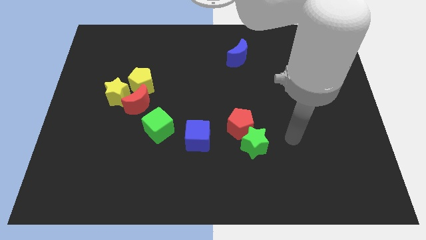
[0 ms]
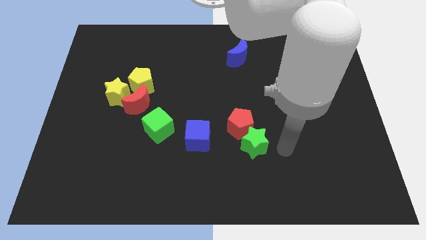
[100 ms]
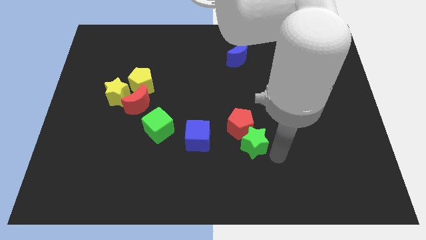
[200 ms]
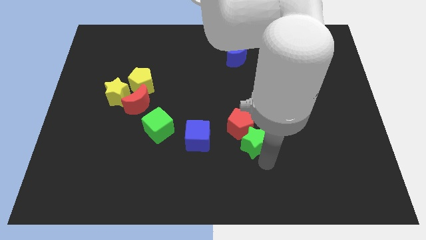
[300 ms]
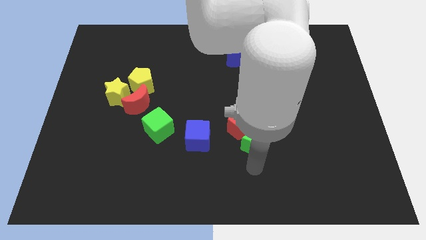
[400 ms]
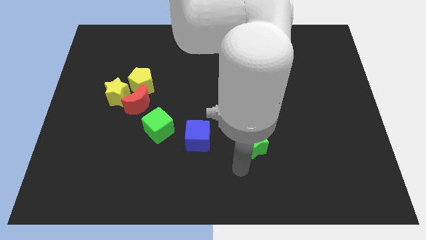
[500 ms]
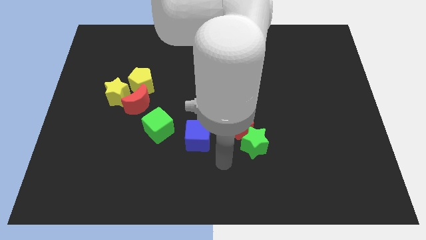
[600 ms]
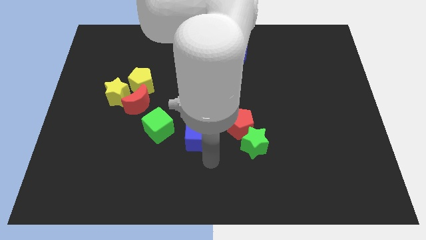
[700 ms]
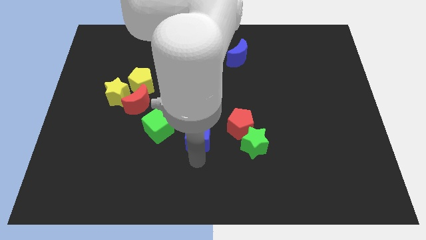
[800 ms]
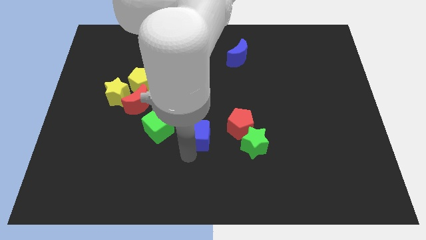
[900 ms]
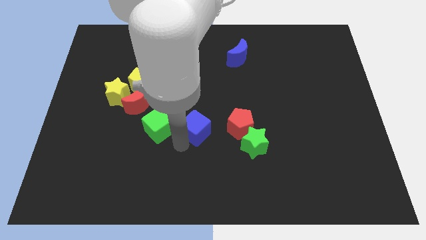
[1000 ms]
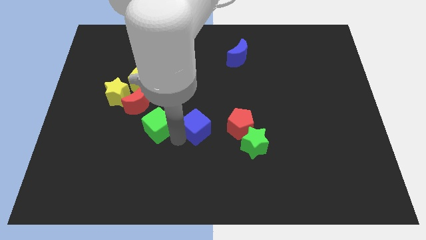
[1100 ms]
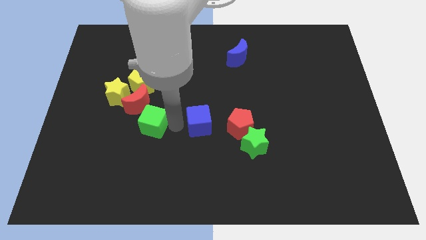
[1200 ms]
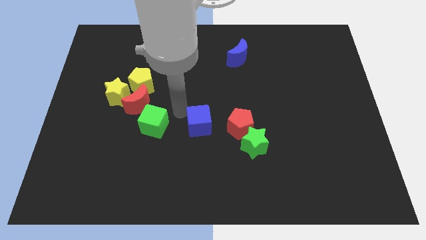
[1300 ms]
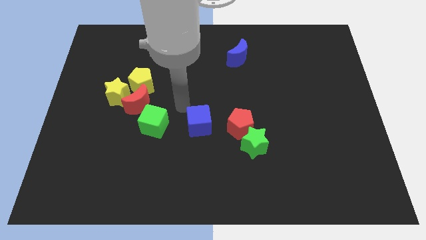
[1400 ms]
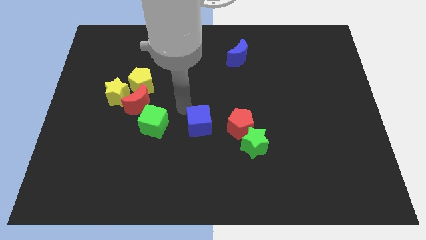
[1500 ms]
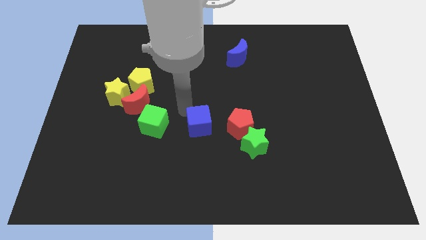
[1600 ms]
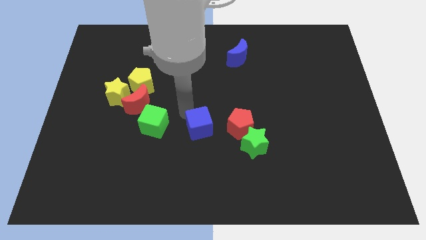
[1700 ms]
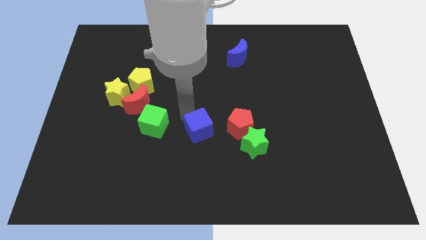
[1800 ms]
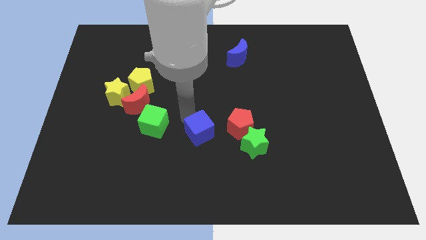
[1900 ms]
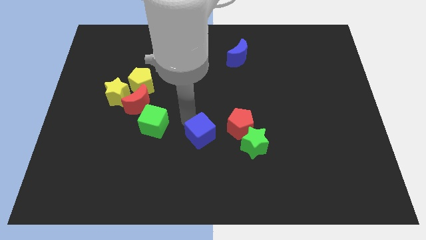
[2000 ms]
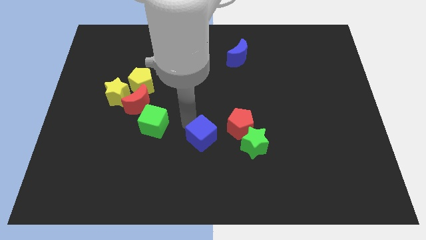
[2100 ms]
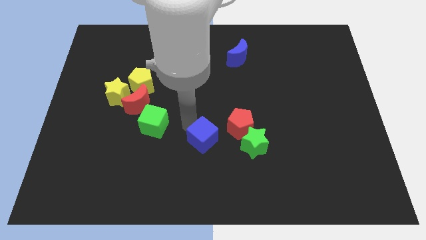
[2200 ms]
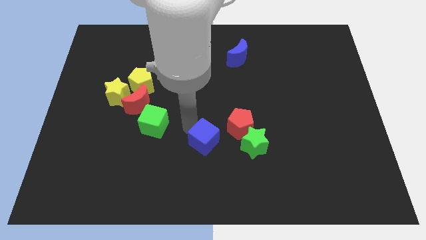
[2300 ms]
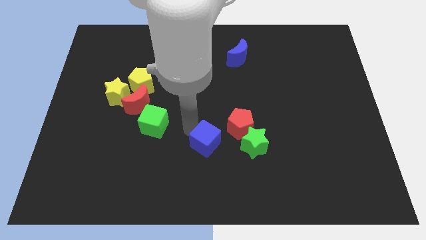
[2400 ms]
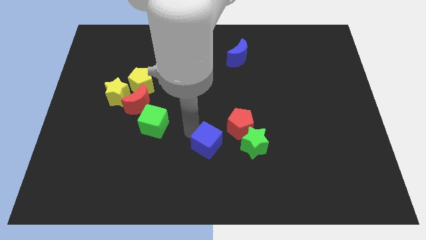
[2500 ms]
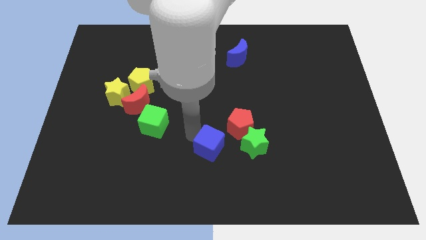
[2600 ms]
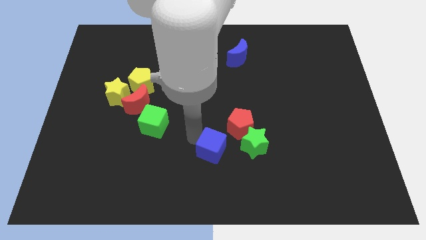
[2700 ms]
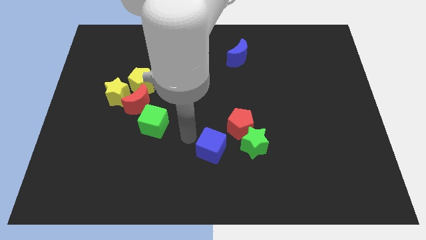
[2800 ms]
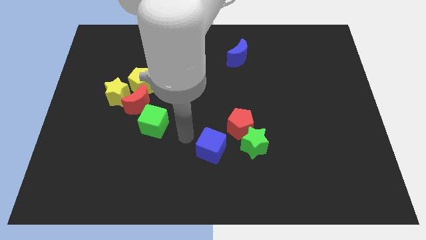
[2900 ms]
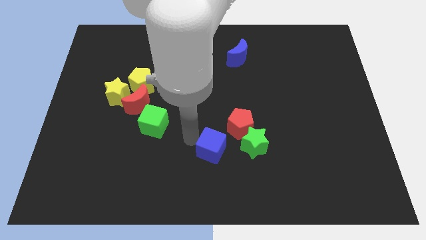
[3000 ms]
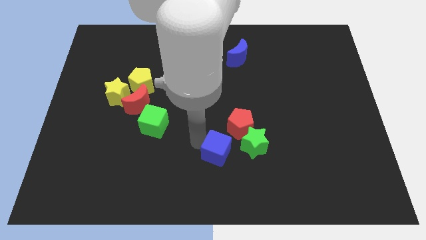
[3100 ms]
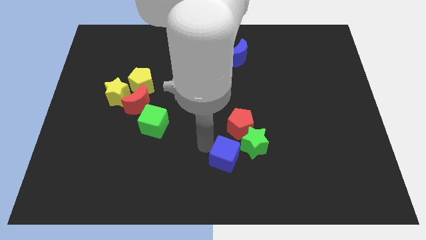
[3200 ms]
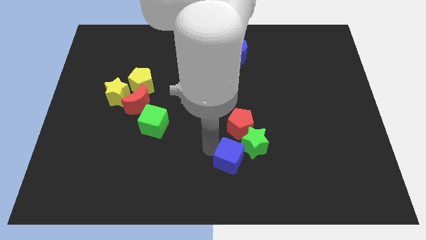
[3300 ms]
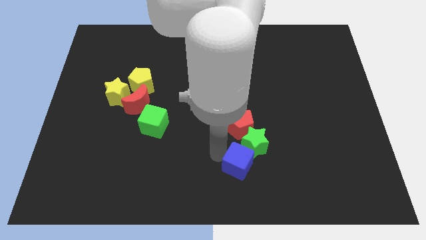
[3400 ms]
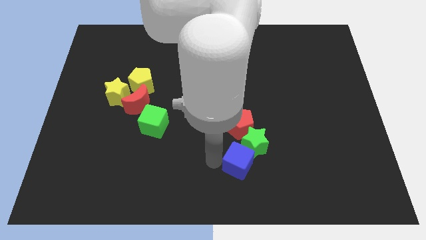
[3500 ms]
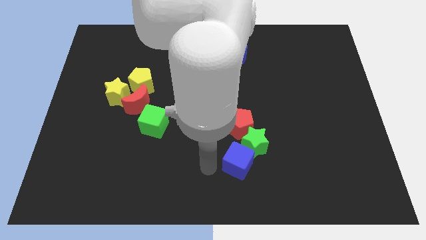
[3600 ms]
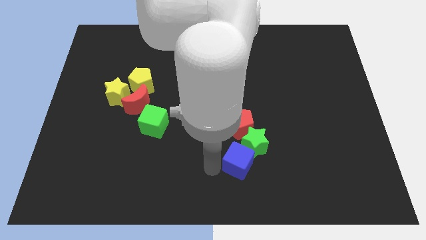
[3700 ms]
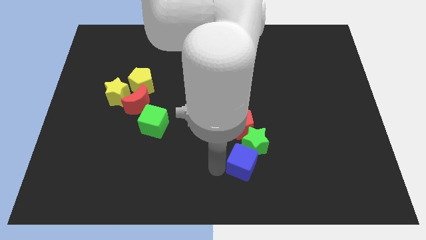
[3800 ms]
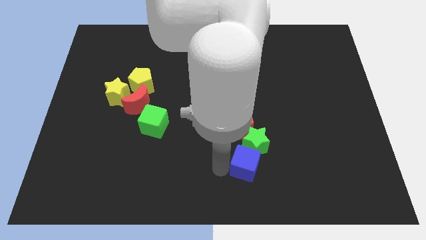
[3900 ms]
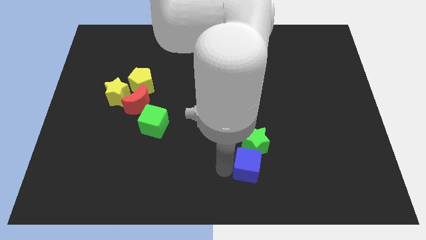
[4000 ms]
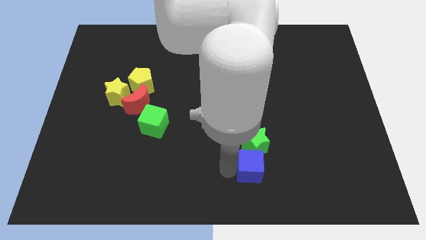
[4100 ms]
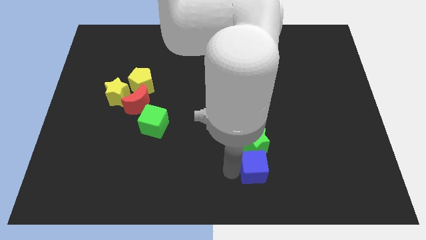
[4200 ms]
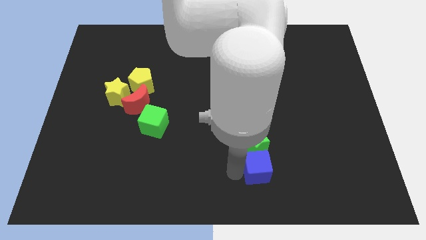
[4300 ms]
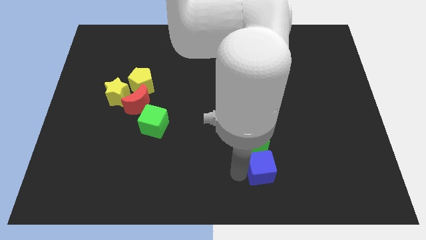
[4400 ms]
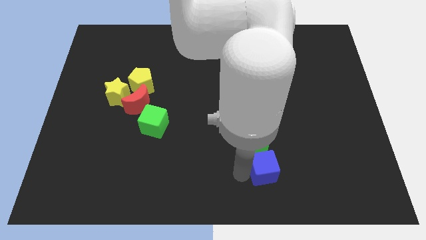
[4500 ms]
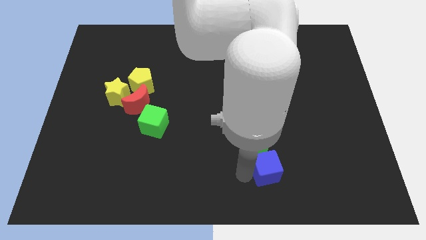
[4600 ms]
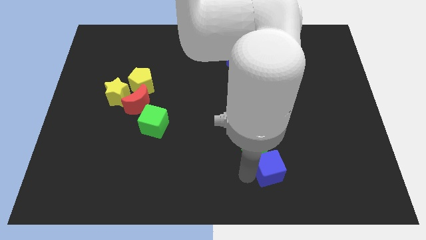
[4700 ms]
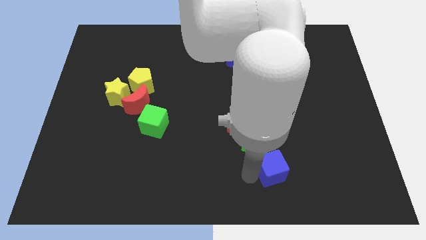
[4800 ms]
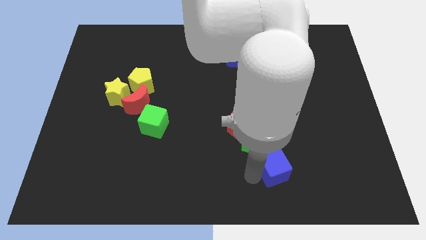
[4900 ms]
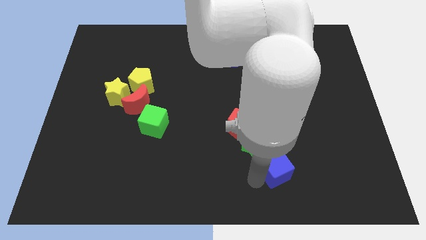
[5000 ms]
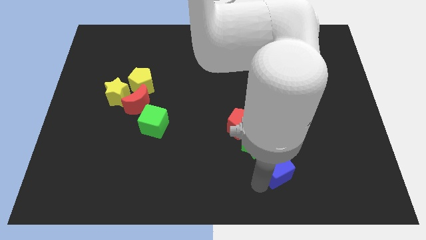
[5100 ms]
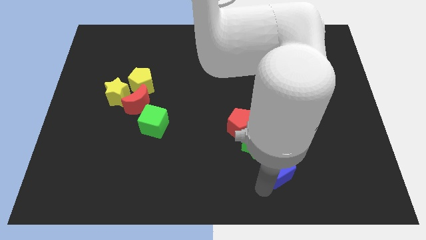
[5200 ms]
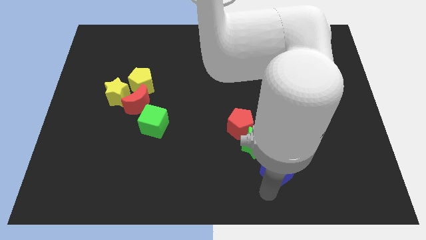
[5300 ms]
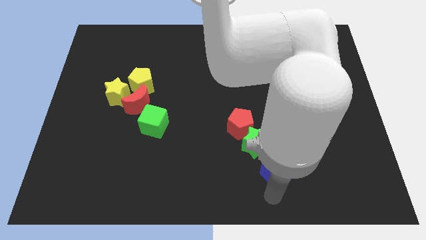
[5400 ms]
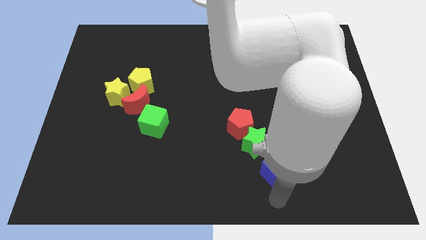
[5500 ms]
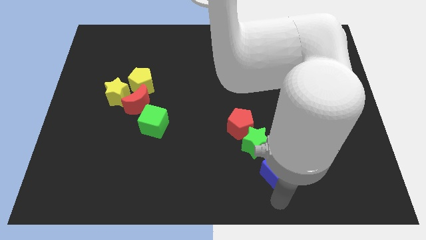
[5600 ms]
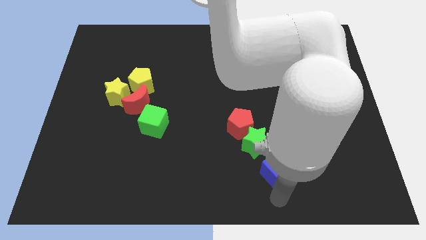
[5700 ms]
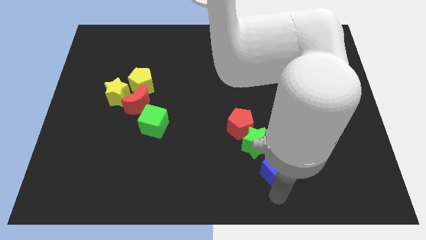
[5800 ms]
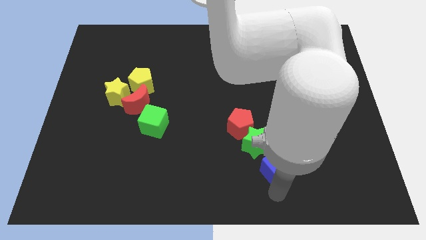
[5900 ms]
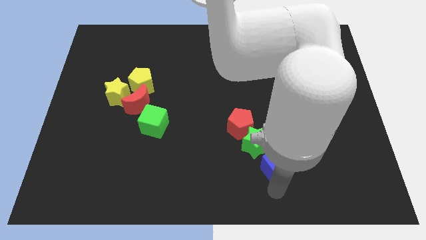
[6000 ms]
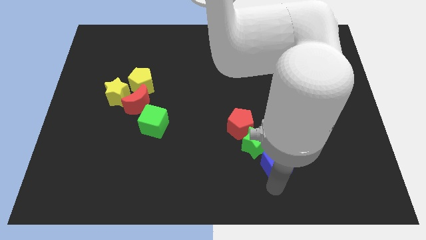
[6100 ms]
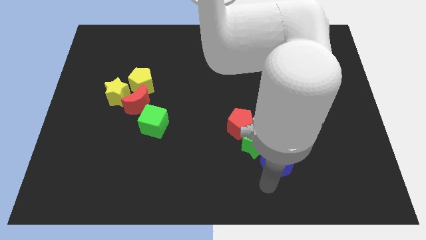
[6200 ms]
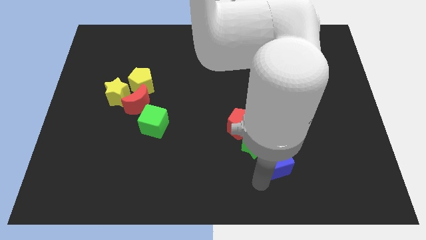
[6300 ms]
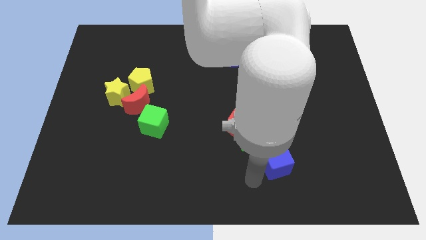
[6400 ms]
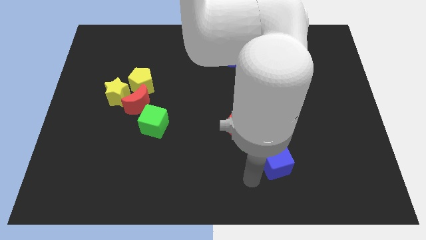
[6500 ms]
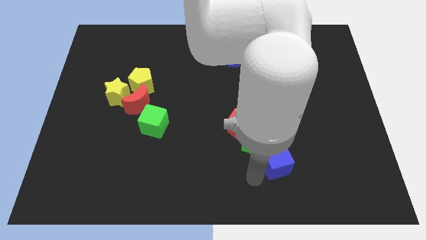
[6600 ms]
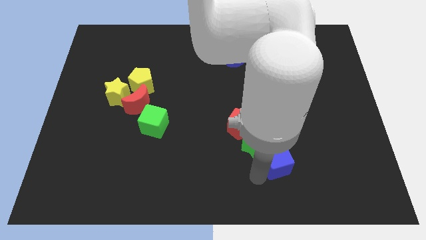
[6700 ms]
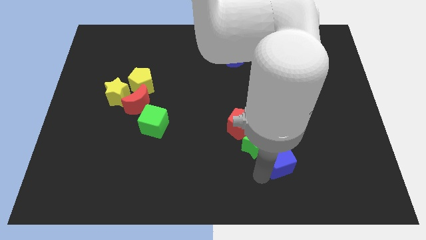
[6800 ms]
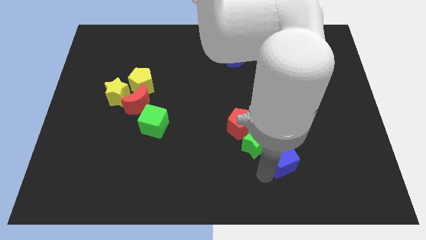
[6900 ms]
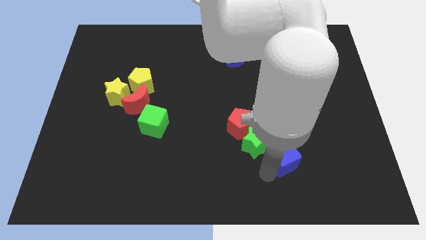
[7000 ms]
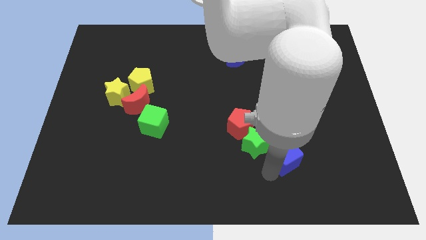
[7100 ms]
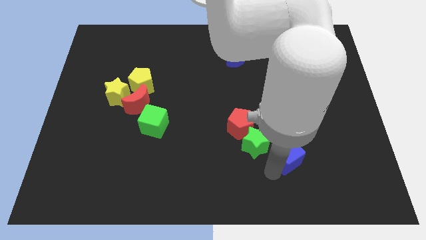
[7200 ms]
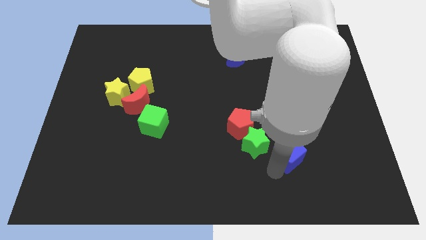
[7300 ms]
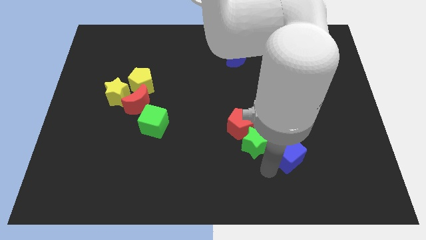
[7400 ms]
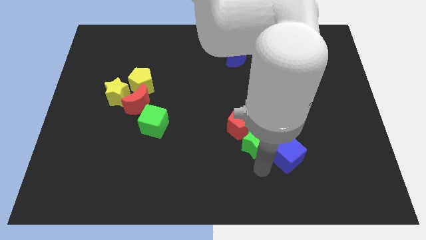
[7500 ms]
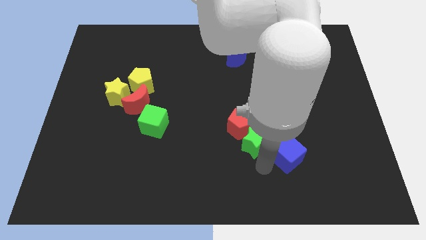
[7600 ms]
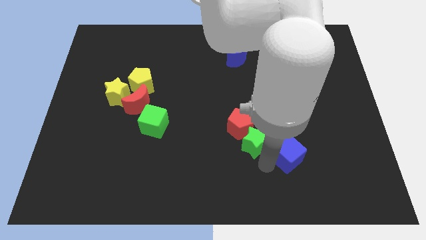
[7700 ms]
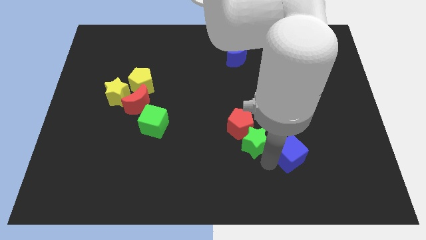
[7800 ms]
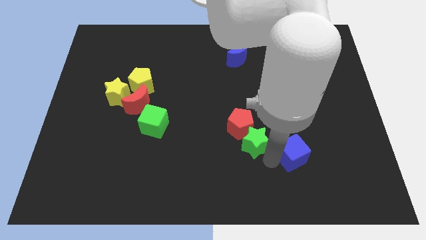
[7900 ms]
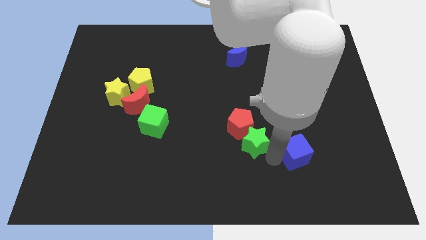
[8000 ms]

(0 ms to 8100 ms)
move the blue cube to the right

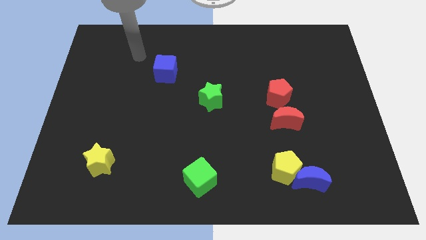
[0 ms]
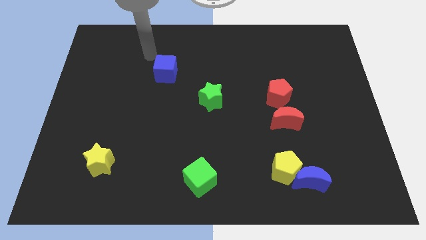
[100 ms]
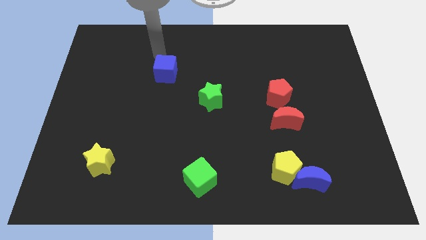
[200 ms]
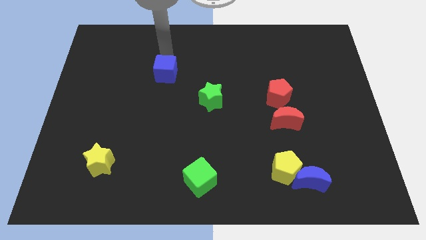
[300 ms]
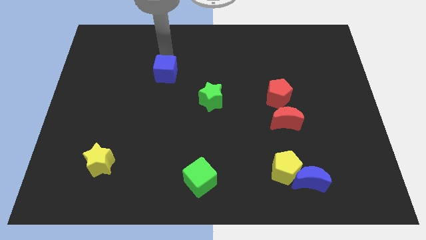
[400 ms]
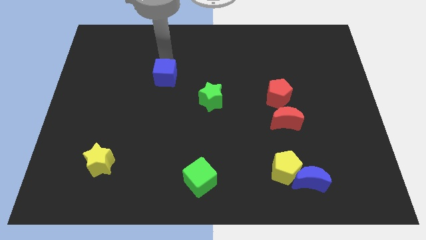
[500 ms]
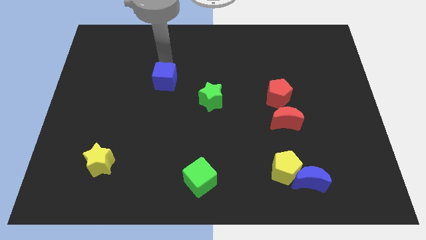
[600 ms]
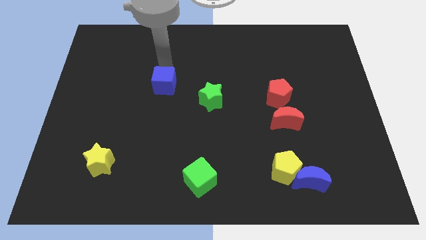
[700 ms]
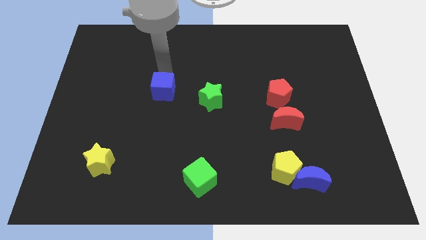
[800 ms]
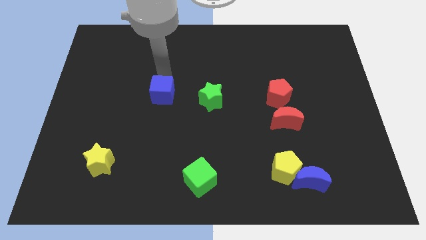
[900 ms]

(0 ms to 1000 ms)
slightly push the blue cube down
